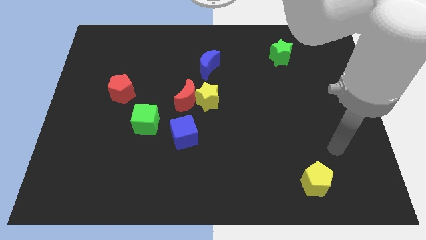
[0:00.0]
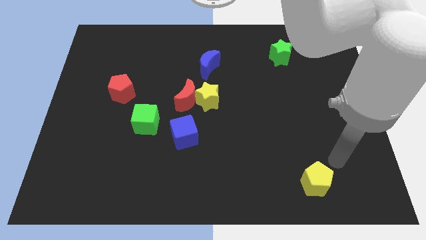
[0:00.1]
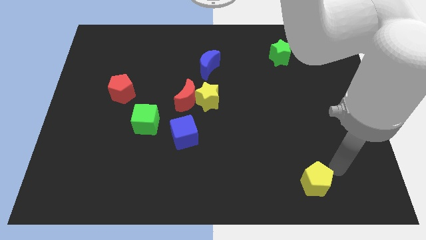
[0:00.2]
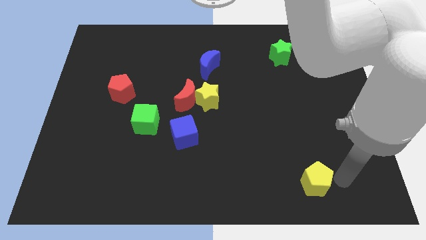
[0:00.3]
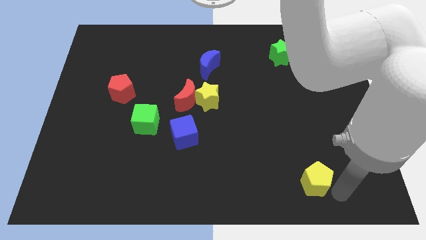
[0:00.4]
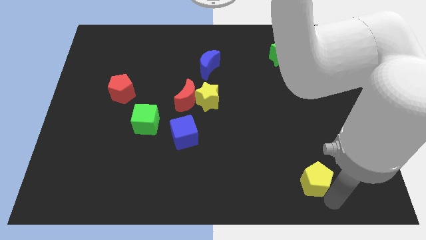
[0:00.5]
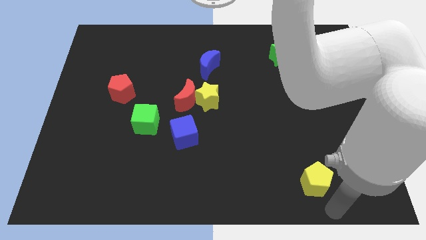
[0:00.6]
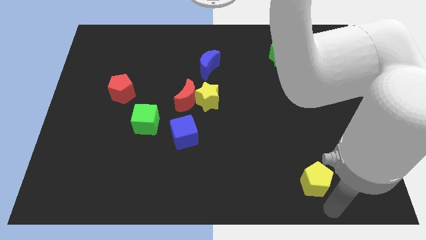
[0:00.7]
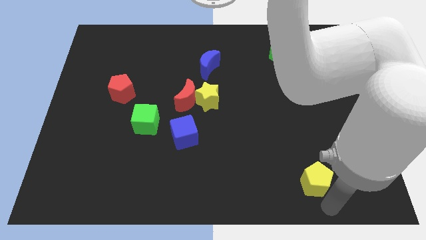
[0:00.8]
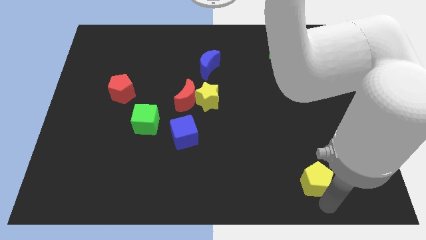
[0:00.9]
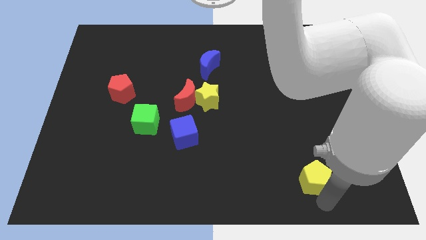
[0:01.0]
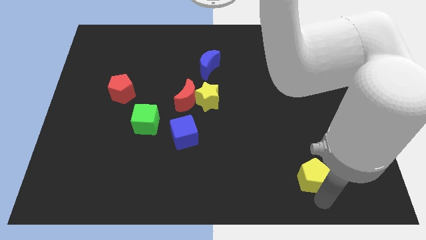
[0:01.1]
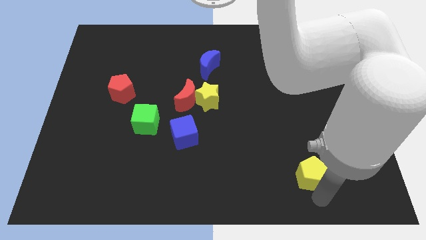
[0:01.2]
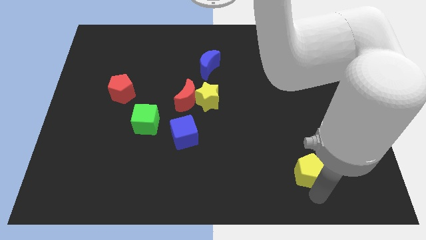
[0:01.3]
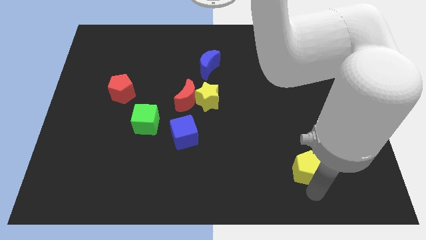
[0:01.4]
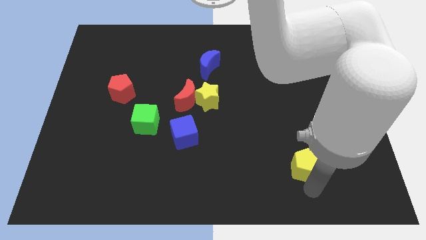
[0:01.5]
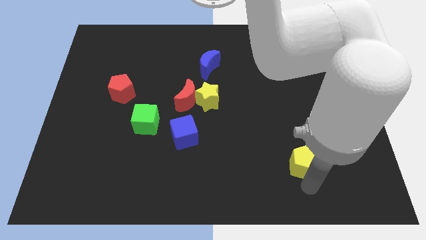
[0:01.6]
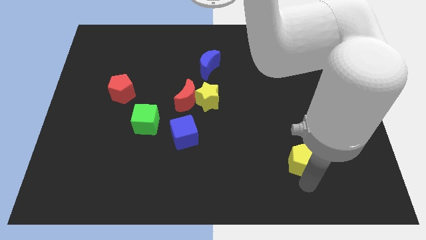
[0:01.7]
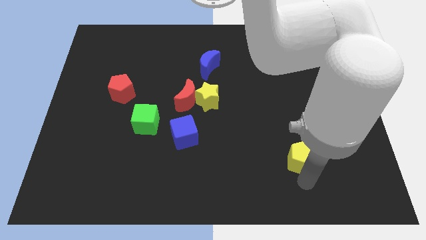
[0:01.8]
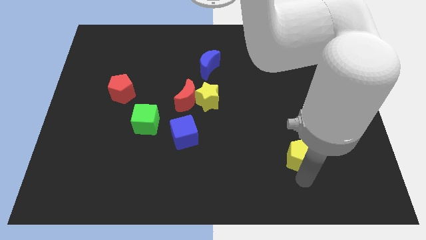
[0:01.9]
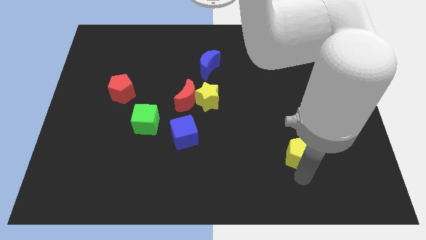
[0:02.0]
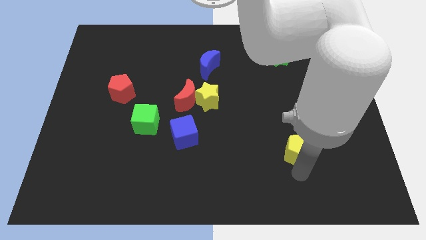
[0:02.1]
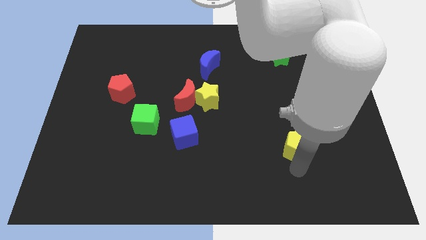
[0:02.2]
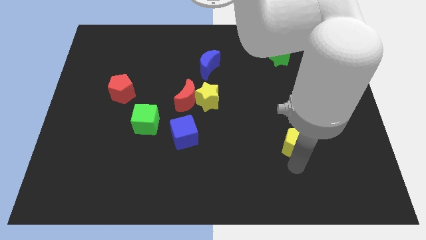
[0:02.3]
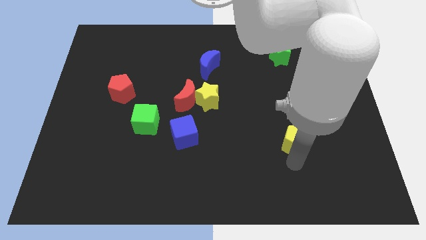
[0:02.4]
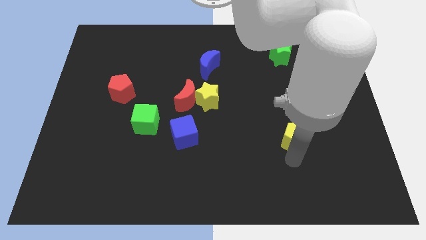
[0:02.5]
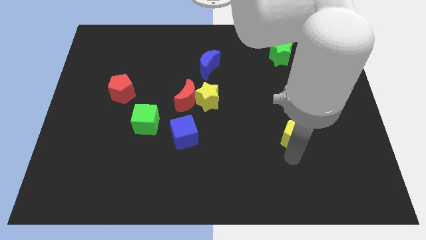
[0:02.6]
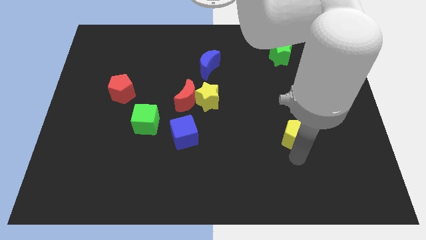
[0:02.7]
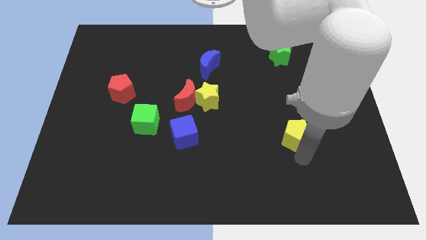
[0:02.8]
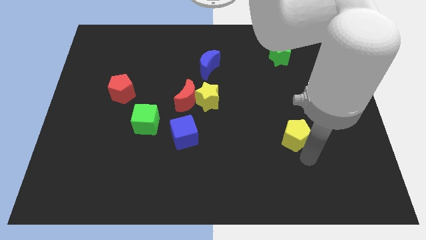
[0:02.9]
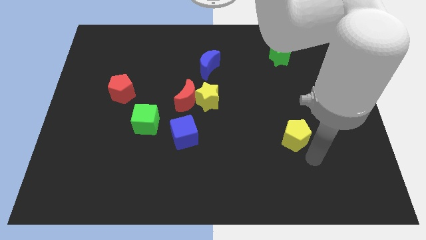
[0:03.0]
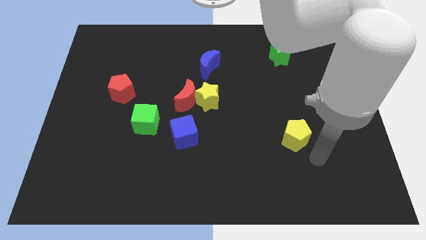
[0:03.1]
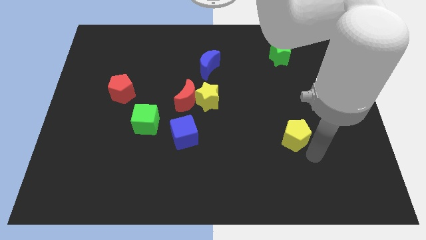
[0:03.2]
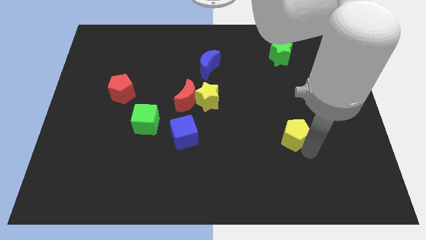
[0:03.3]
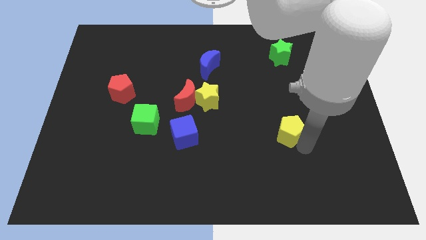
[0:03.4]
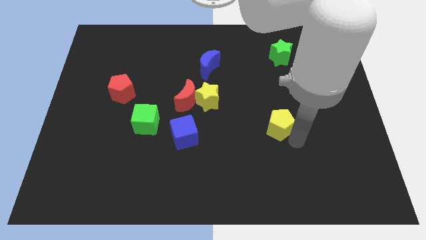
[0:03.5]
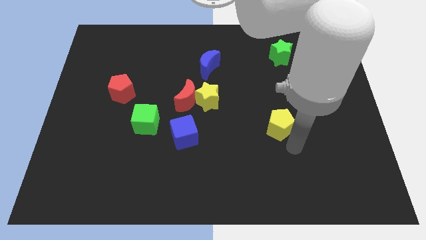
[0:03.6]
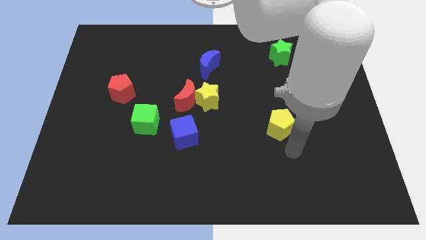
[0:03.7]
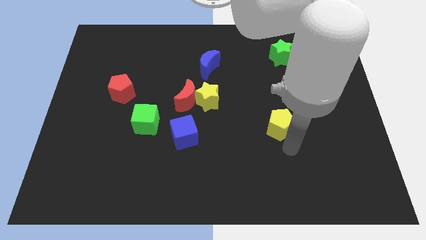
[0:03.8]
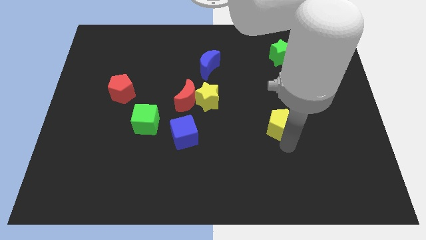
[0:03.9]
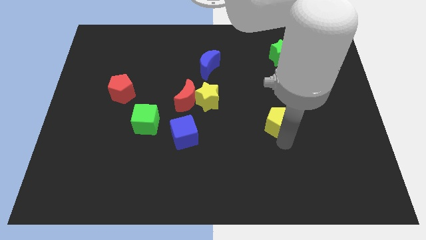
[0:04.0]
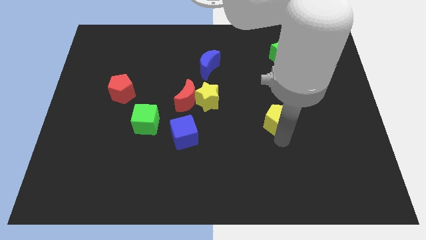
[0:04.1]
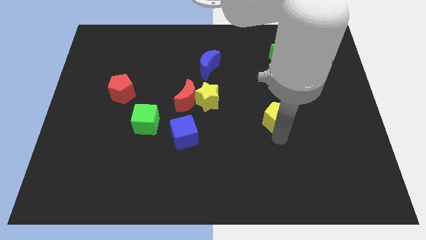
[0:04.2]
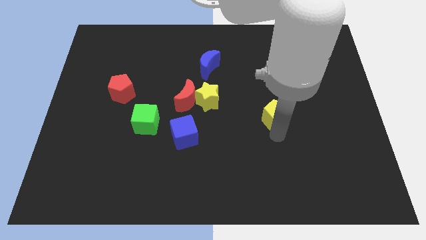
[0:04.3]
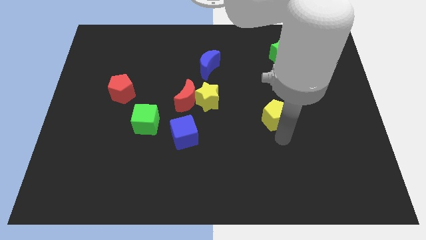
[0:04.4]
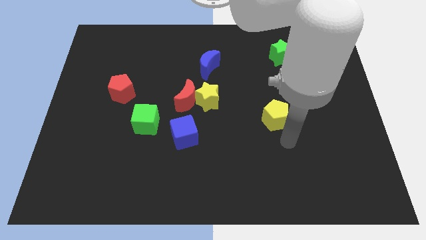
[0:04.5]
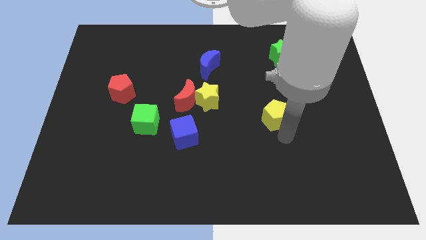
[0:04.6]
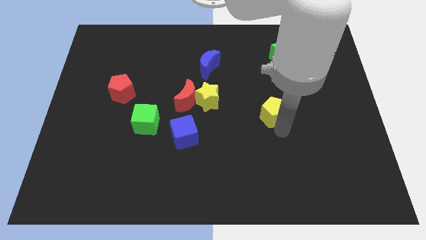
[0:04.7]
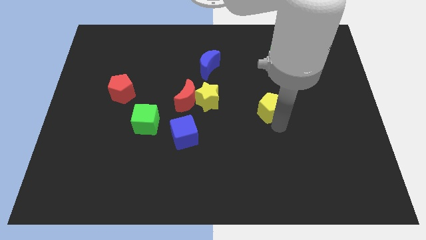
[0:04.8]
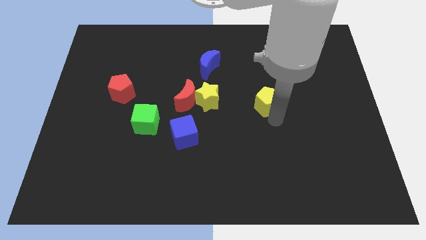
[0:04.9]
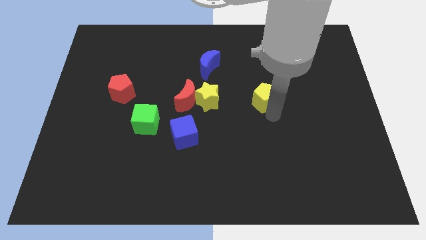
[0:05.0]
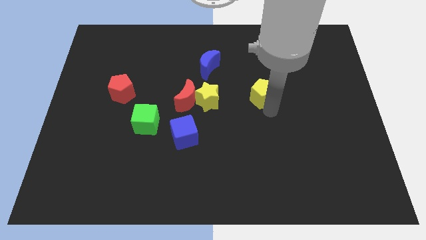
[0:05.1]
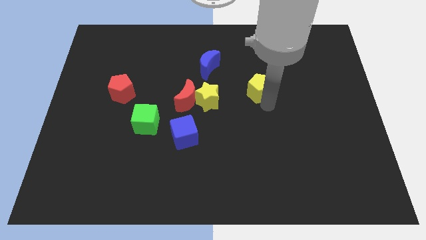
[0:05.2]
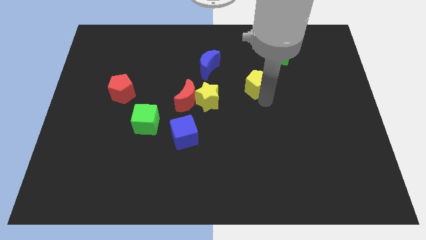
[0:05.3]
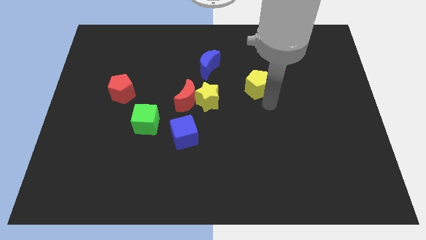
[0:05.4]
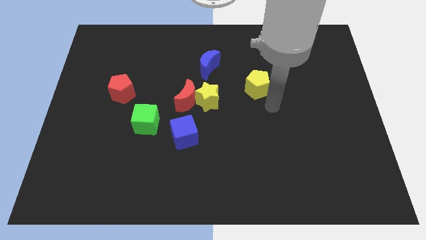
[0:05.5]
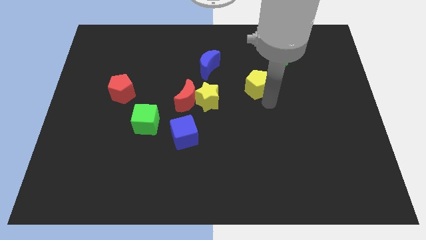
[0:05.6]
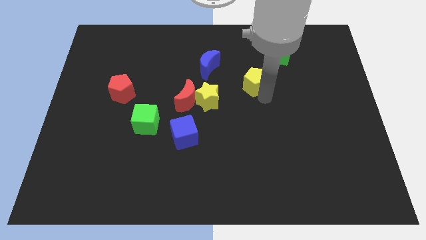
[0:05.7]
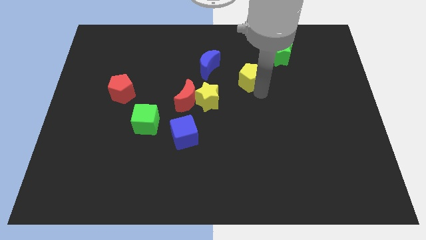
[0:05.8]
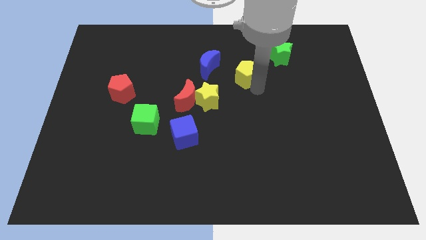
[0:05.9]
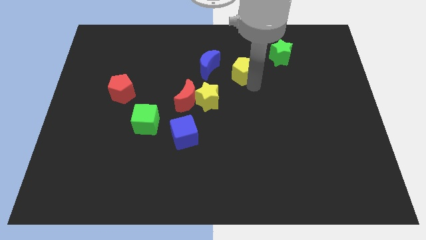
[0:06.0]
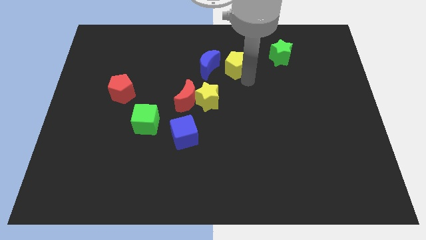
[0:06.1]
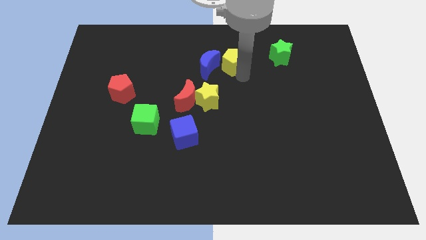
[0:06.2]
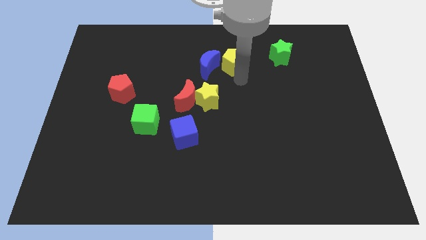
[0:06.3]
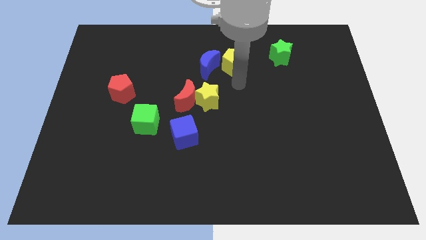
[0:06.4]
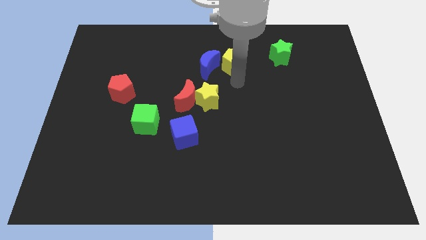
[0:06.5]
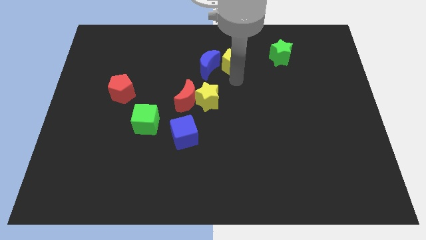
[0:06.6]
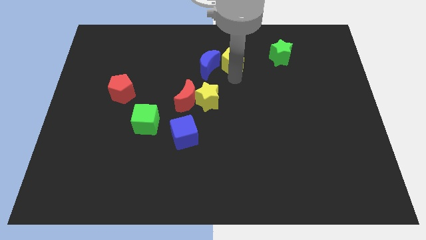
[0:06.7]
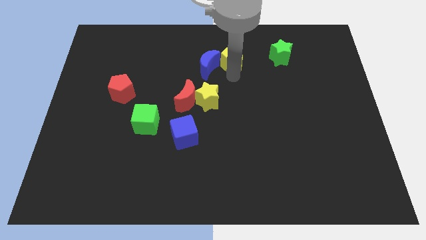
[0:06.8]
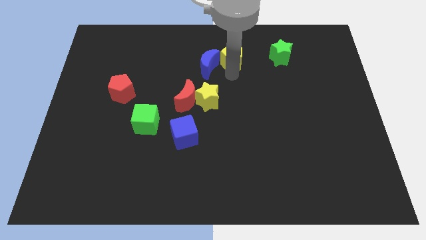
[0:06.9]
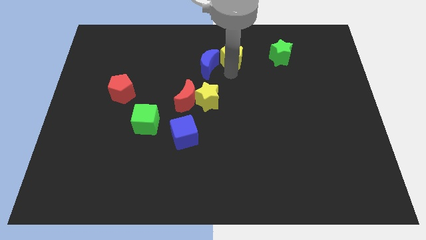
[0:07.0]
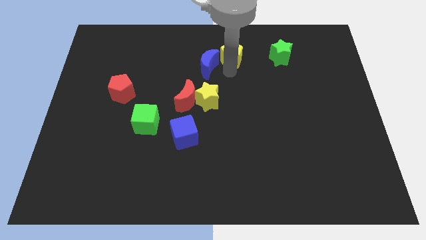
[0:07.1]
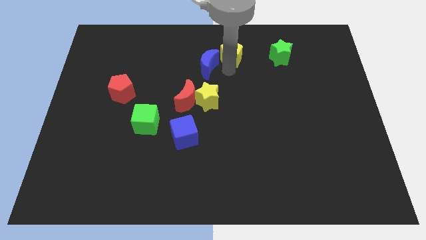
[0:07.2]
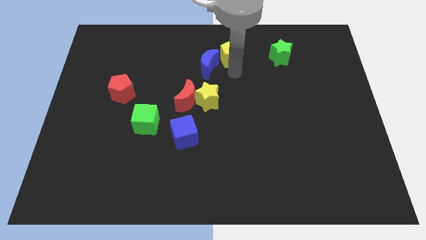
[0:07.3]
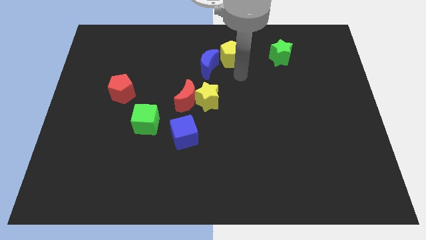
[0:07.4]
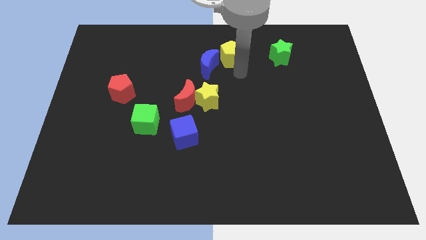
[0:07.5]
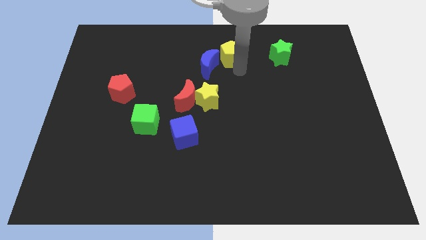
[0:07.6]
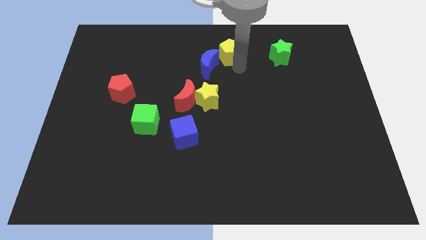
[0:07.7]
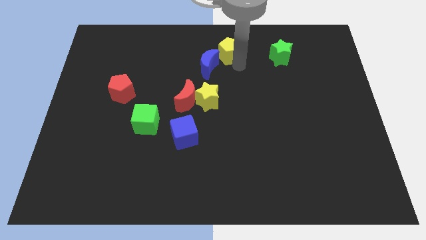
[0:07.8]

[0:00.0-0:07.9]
put the yellow pentagon to the towards your base
